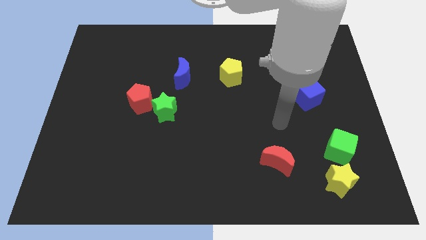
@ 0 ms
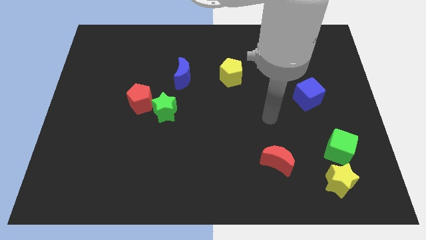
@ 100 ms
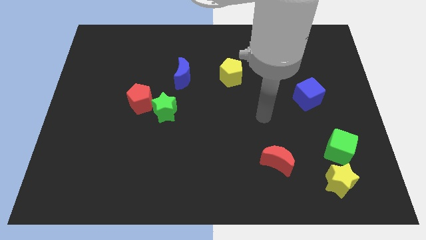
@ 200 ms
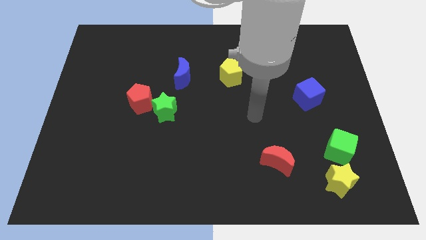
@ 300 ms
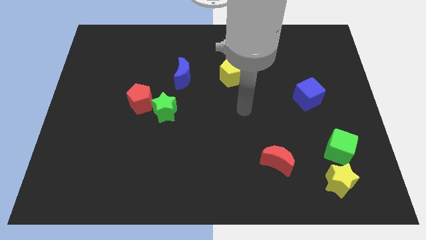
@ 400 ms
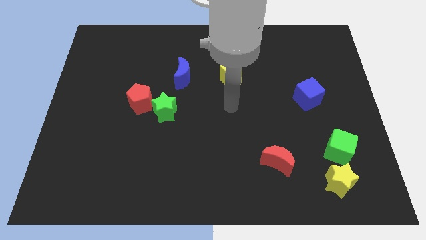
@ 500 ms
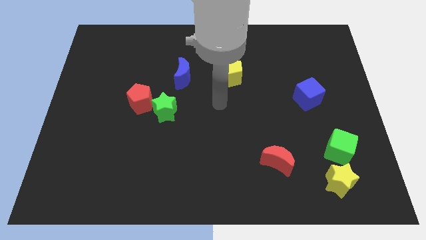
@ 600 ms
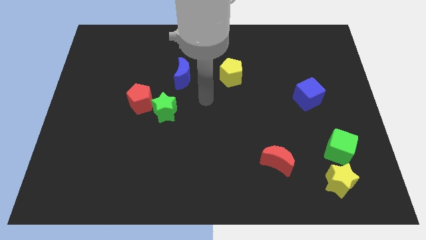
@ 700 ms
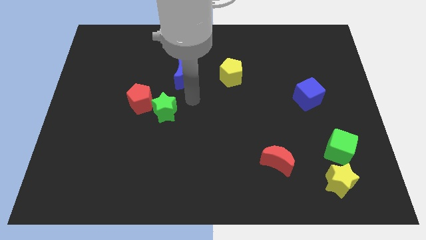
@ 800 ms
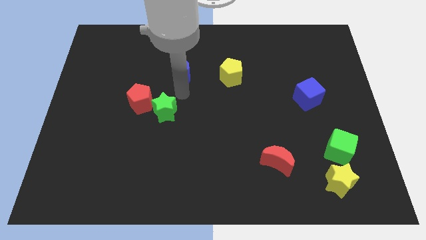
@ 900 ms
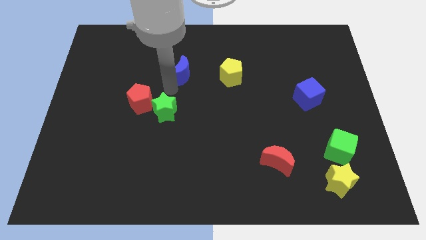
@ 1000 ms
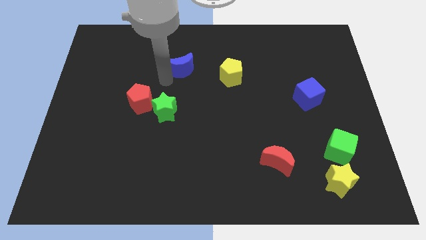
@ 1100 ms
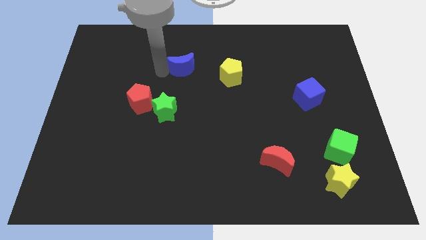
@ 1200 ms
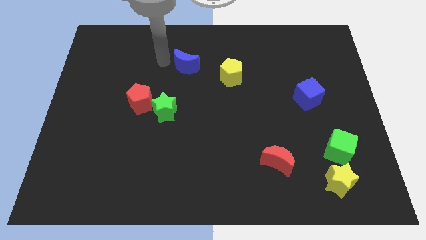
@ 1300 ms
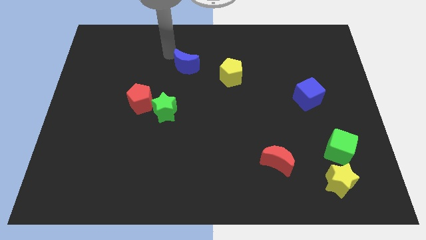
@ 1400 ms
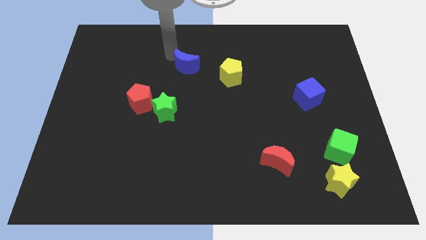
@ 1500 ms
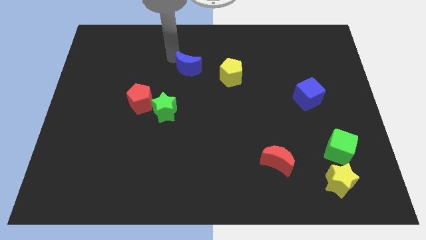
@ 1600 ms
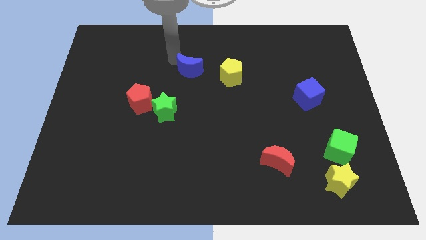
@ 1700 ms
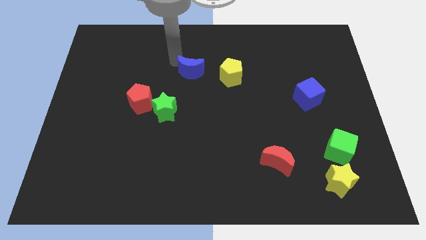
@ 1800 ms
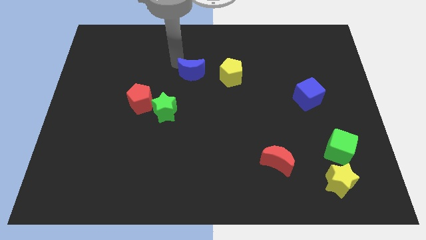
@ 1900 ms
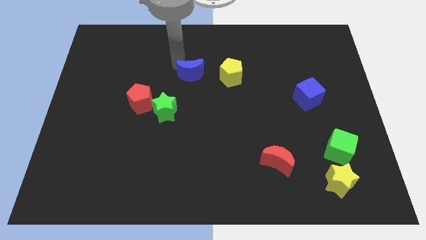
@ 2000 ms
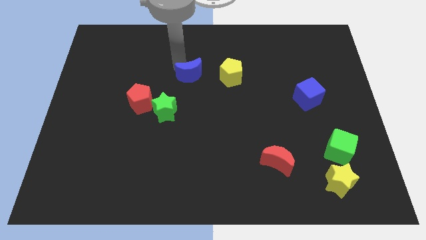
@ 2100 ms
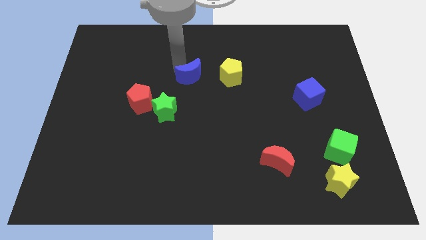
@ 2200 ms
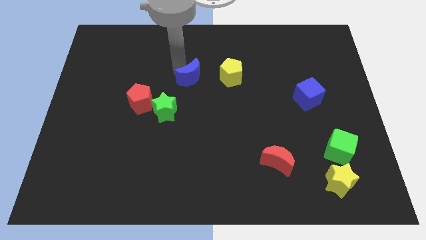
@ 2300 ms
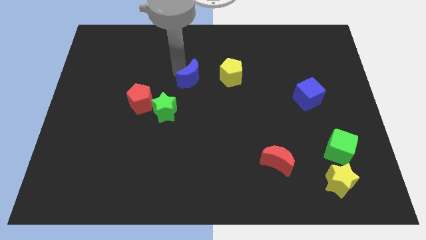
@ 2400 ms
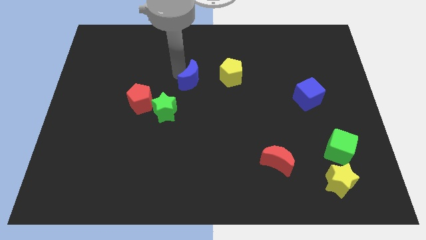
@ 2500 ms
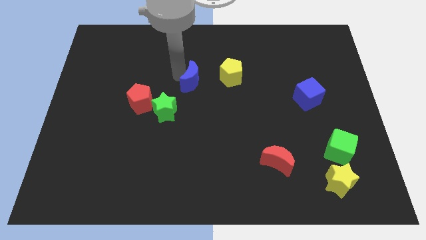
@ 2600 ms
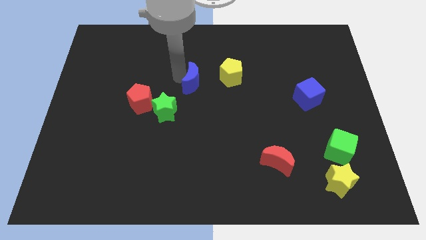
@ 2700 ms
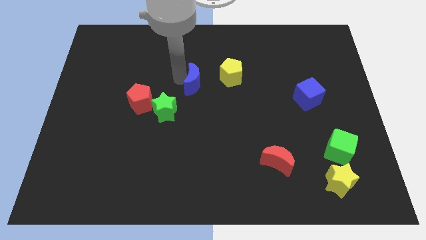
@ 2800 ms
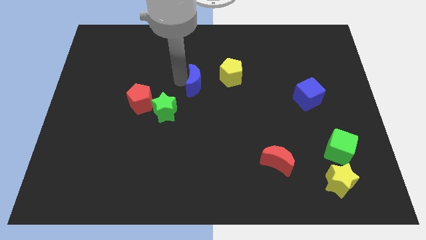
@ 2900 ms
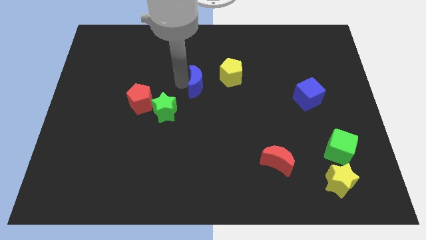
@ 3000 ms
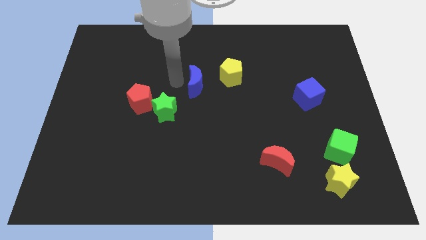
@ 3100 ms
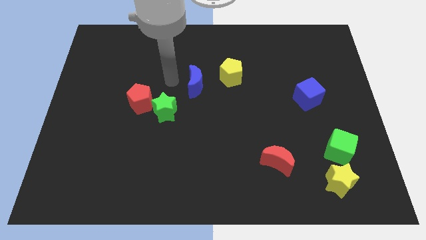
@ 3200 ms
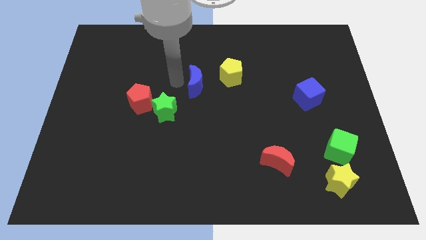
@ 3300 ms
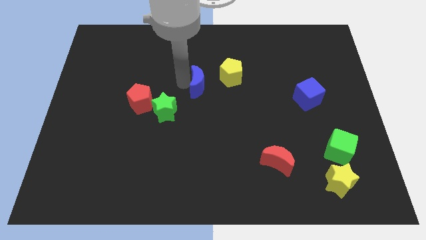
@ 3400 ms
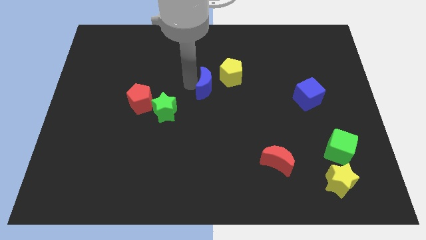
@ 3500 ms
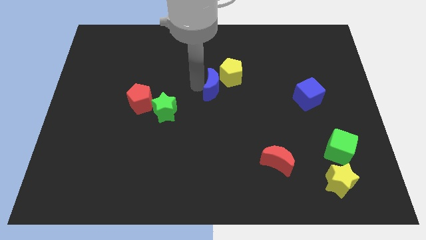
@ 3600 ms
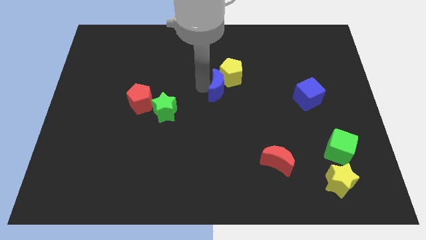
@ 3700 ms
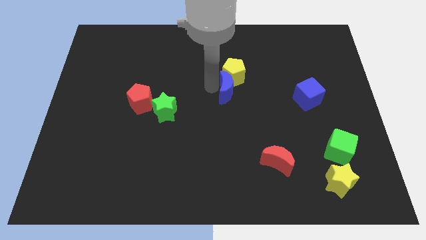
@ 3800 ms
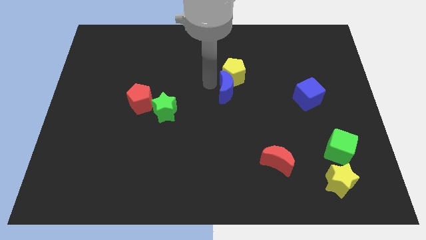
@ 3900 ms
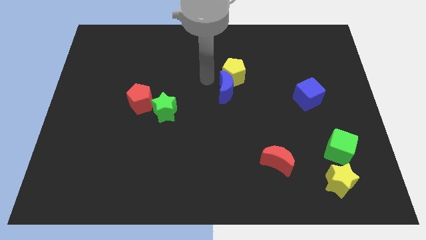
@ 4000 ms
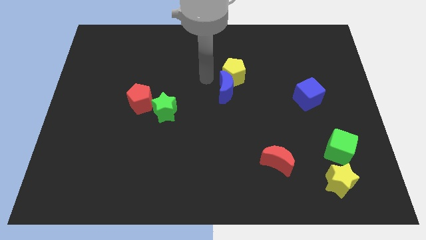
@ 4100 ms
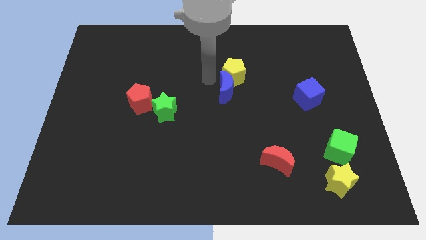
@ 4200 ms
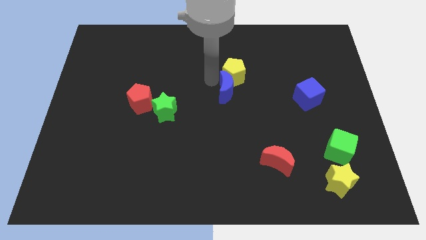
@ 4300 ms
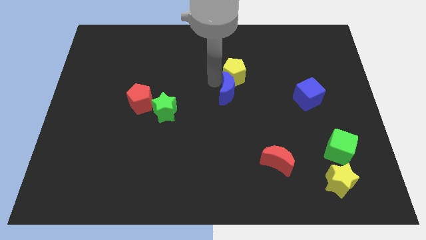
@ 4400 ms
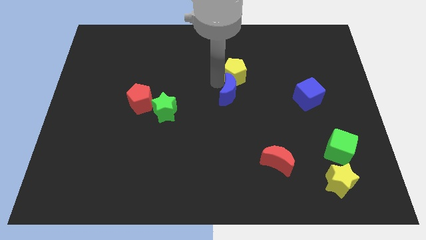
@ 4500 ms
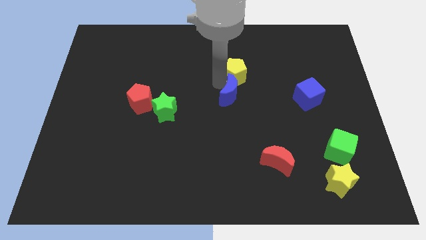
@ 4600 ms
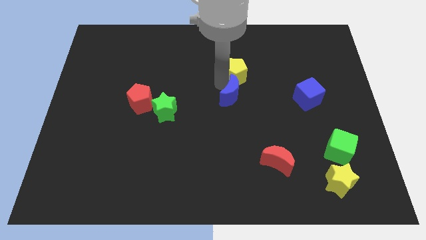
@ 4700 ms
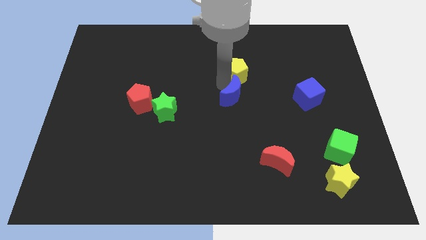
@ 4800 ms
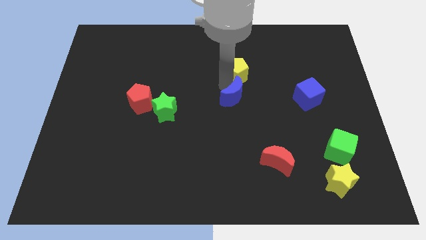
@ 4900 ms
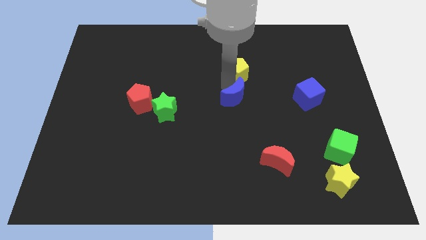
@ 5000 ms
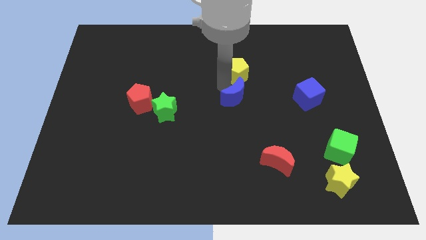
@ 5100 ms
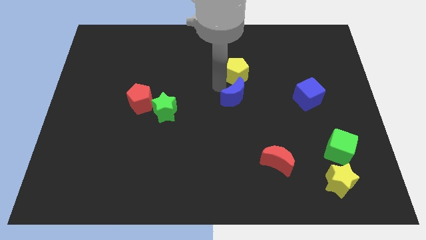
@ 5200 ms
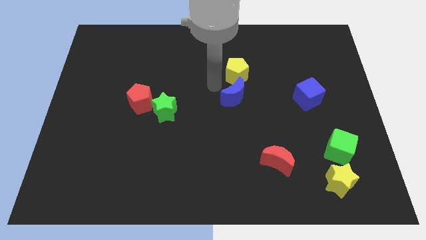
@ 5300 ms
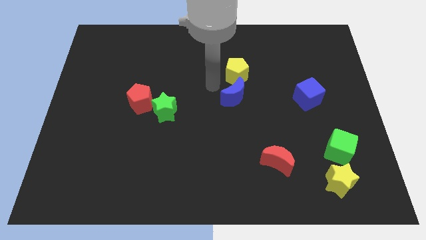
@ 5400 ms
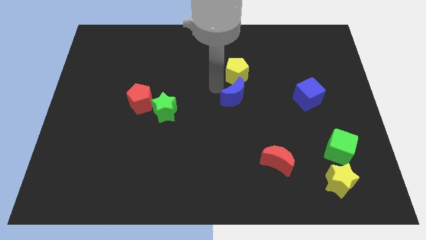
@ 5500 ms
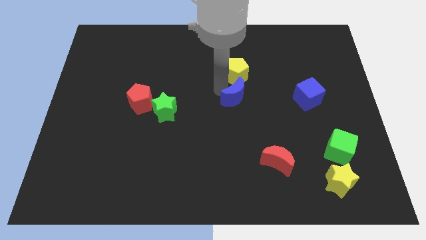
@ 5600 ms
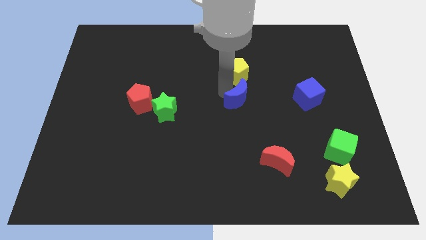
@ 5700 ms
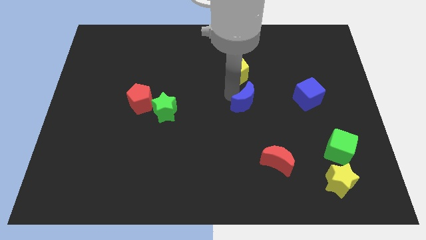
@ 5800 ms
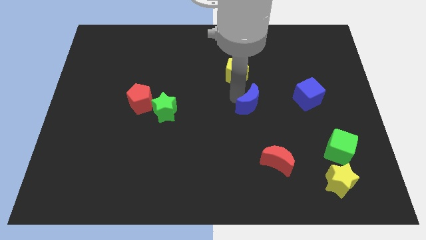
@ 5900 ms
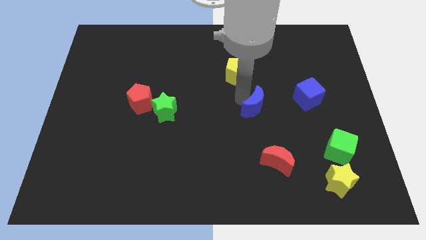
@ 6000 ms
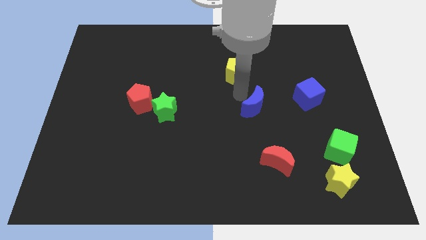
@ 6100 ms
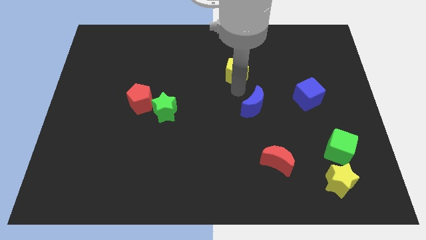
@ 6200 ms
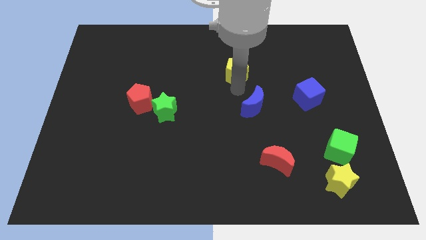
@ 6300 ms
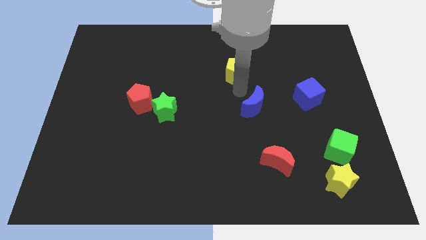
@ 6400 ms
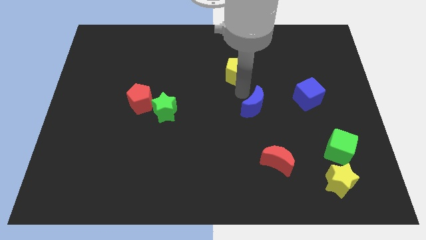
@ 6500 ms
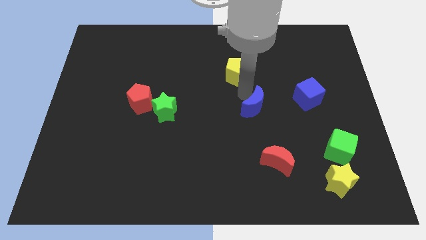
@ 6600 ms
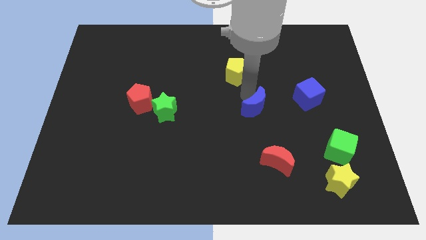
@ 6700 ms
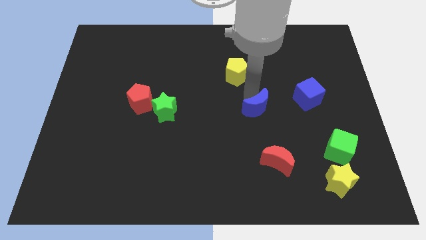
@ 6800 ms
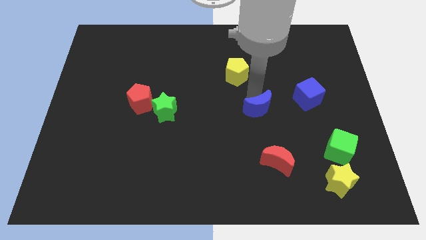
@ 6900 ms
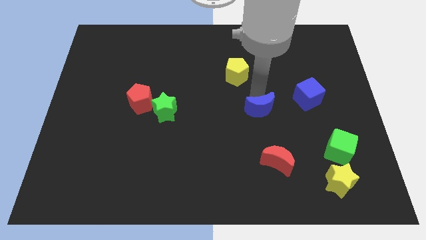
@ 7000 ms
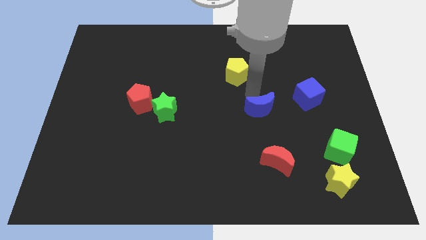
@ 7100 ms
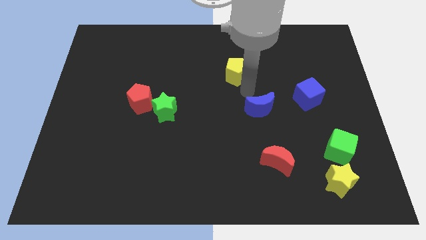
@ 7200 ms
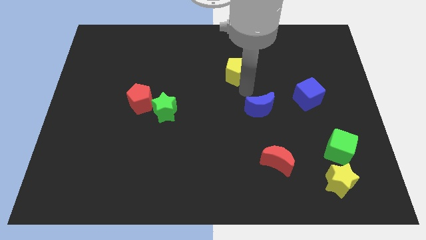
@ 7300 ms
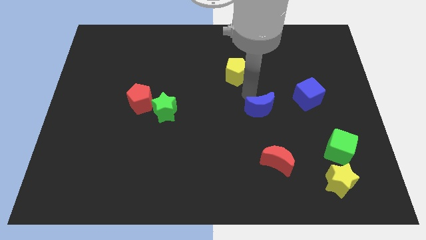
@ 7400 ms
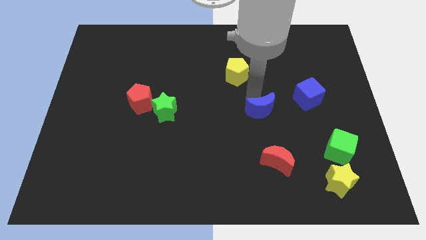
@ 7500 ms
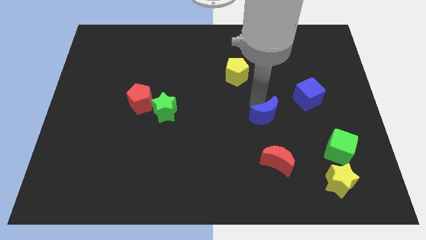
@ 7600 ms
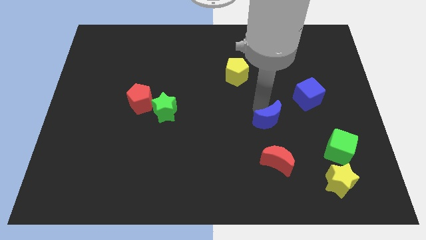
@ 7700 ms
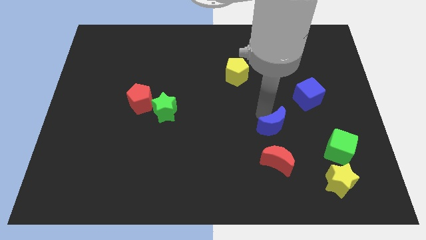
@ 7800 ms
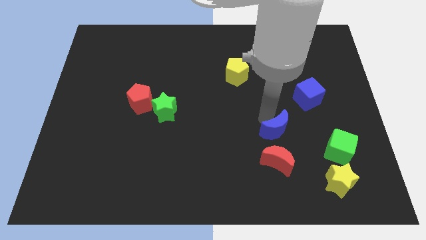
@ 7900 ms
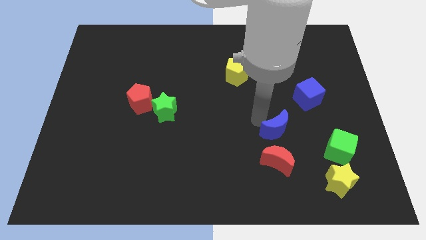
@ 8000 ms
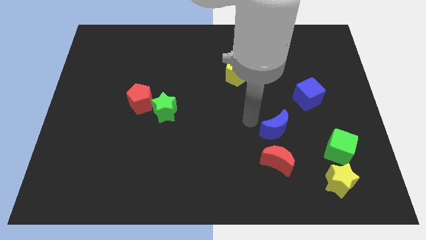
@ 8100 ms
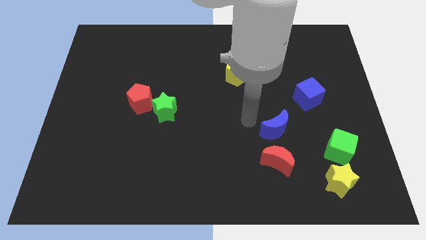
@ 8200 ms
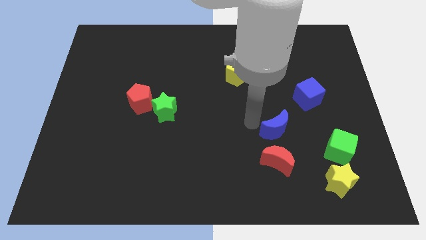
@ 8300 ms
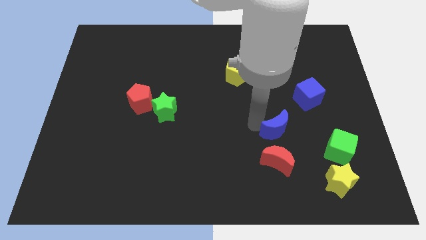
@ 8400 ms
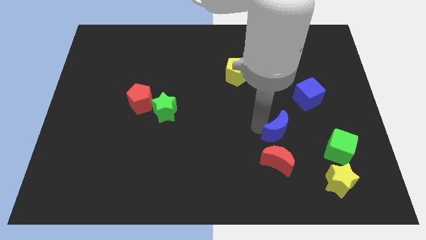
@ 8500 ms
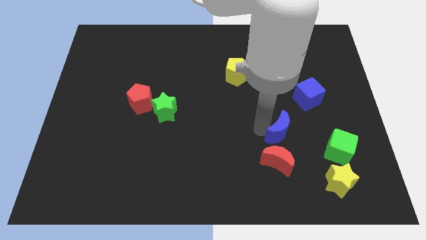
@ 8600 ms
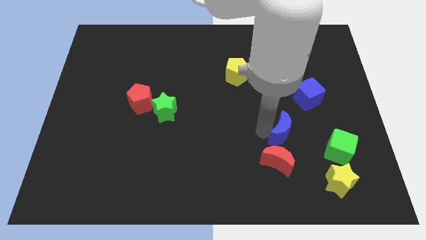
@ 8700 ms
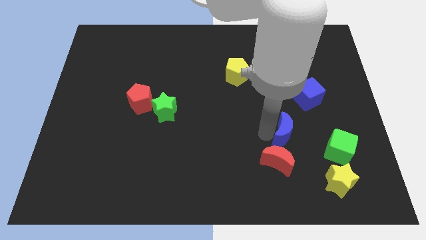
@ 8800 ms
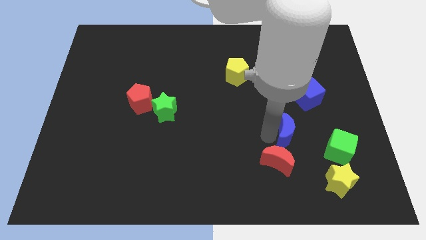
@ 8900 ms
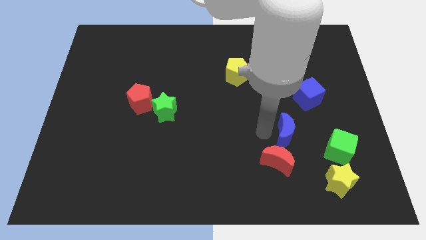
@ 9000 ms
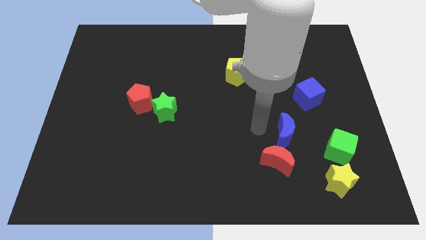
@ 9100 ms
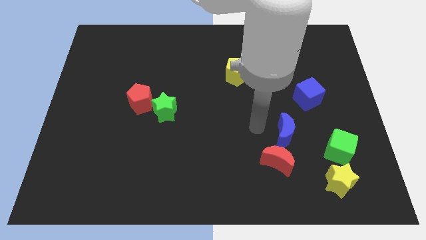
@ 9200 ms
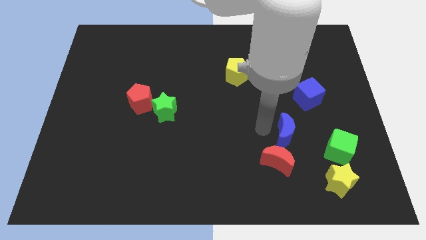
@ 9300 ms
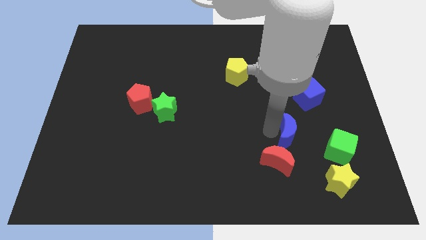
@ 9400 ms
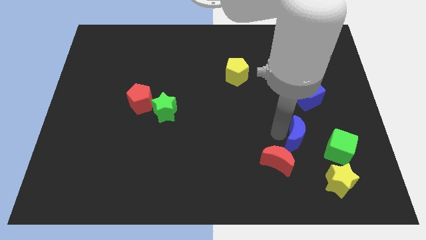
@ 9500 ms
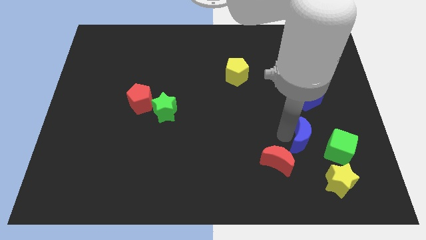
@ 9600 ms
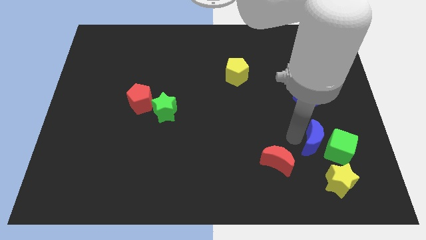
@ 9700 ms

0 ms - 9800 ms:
slide the blue moon to the green cube
